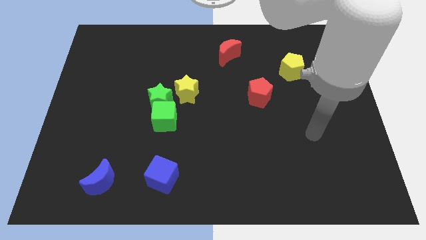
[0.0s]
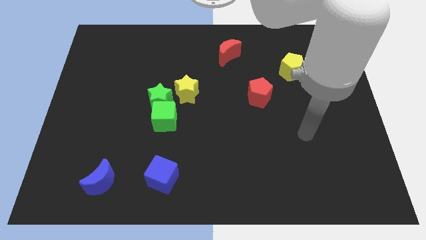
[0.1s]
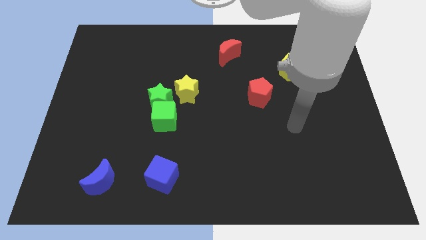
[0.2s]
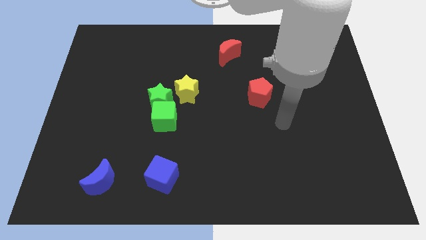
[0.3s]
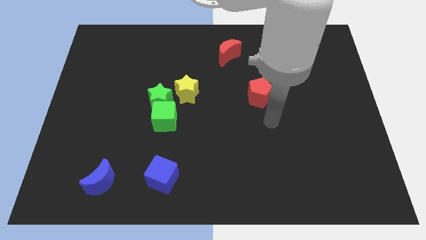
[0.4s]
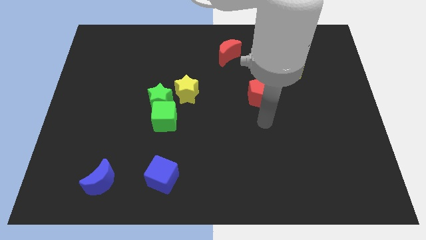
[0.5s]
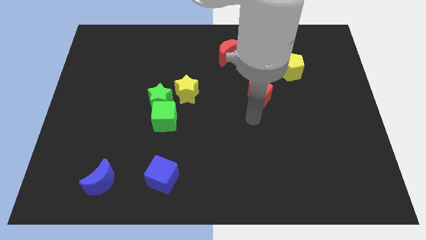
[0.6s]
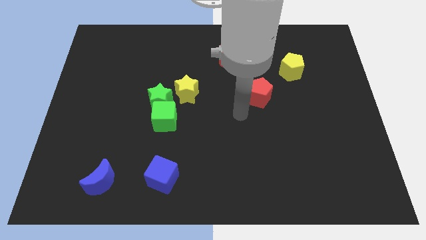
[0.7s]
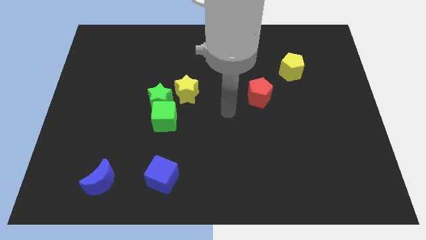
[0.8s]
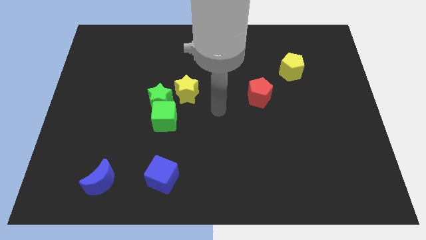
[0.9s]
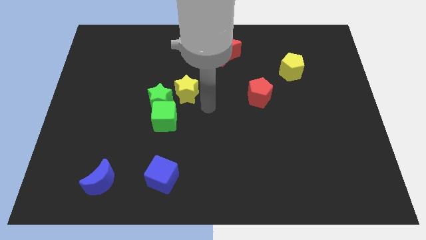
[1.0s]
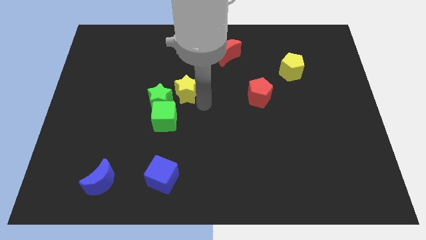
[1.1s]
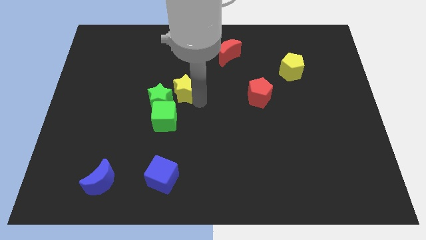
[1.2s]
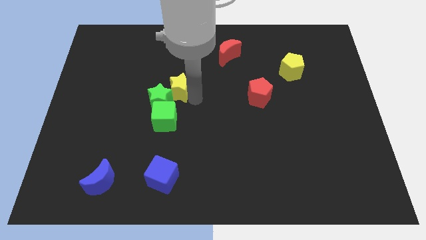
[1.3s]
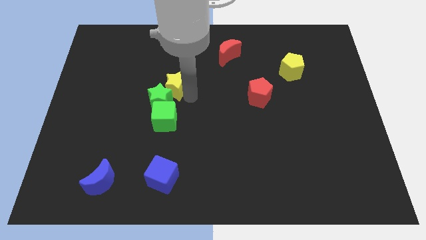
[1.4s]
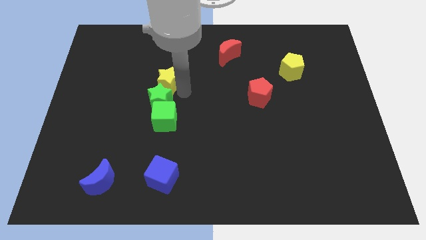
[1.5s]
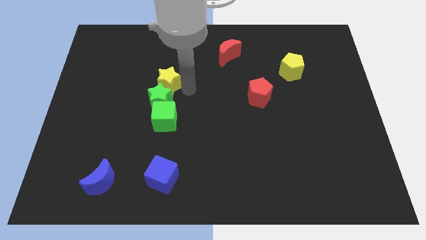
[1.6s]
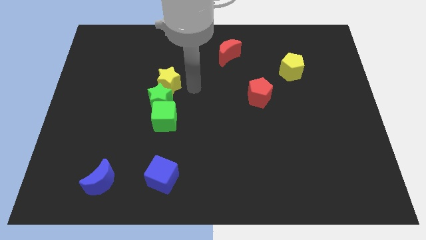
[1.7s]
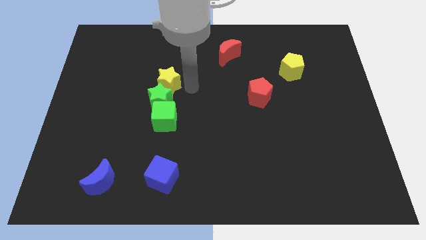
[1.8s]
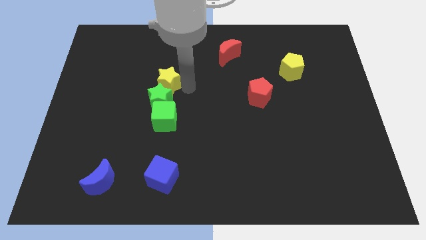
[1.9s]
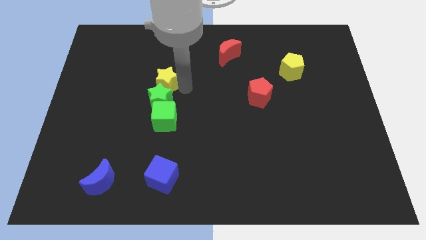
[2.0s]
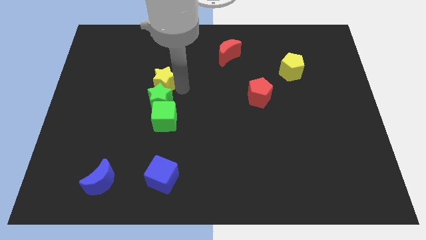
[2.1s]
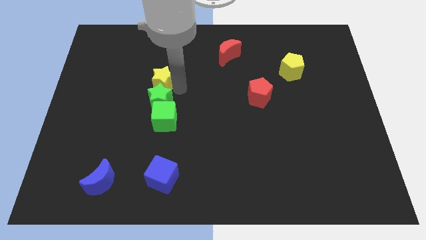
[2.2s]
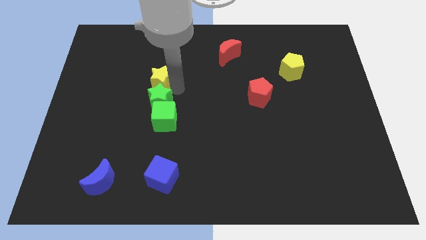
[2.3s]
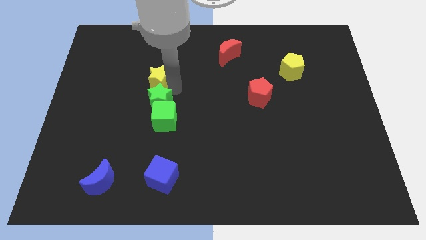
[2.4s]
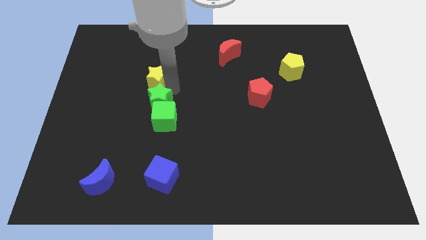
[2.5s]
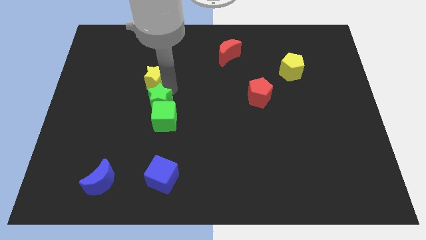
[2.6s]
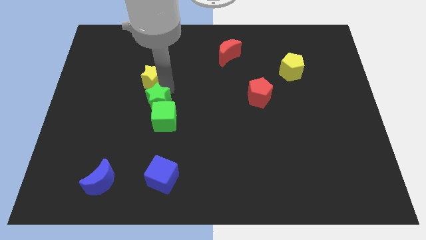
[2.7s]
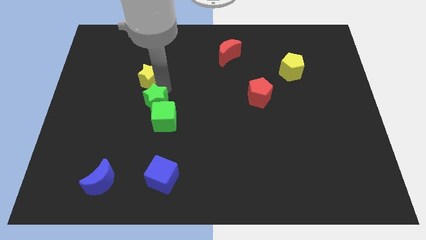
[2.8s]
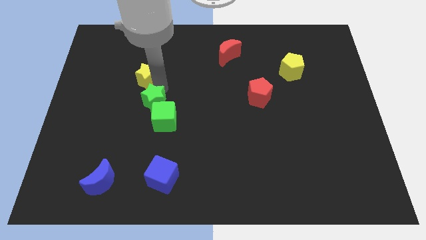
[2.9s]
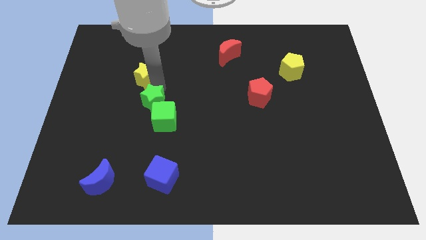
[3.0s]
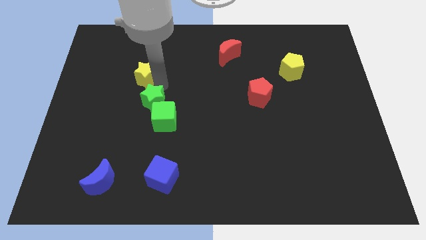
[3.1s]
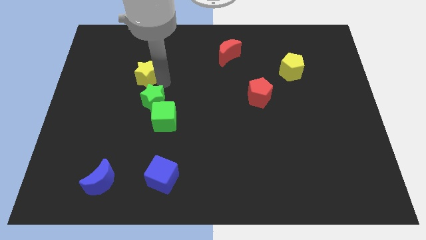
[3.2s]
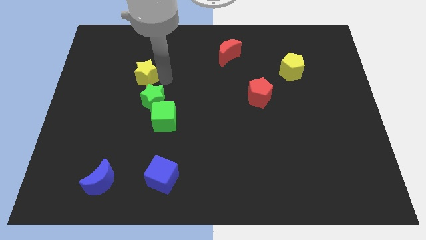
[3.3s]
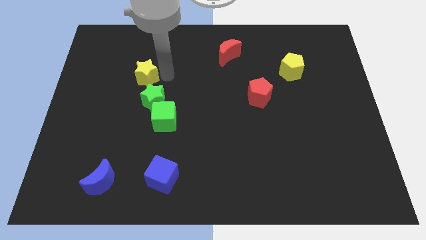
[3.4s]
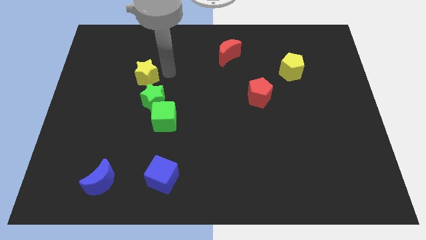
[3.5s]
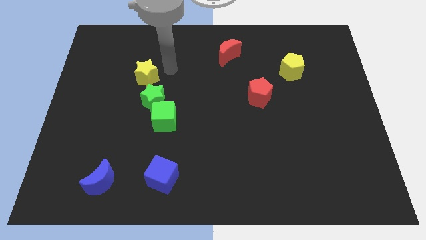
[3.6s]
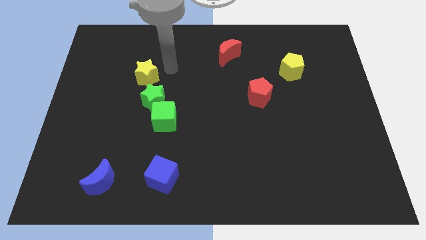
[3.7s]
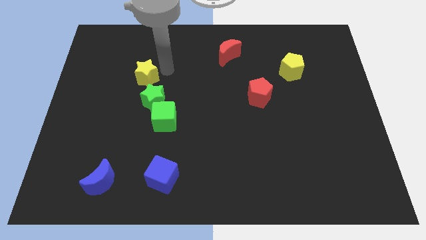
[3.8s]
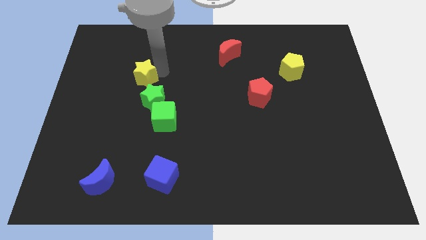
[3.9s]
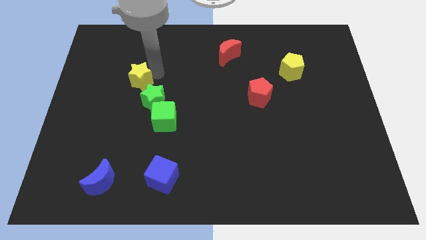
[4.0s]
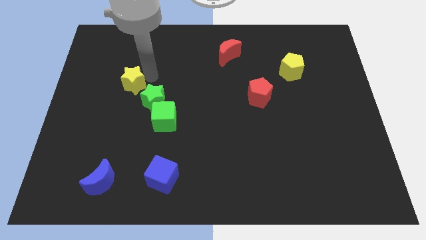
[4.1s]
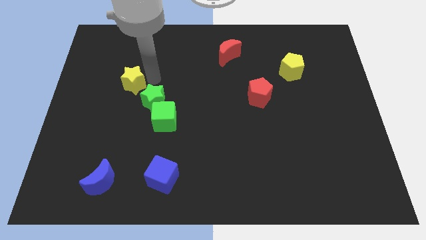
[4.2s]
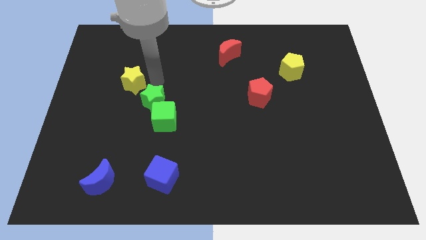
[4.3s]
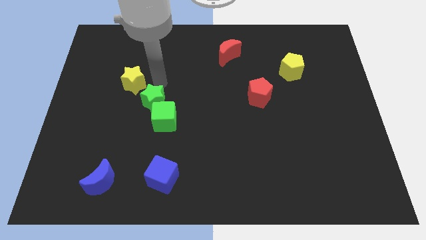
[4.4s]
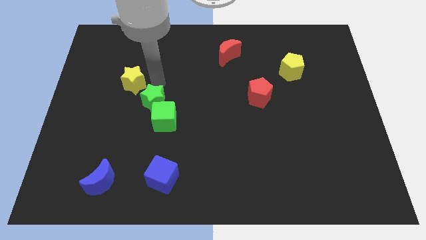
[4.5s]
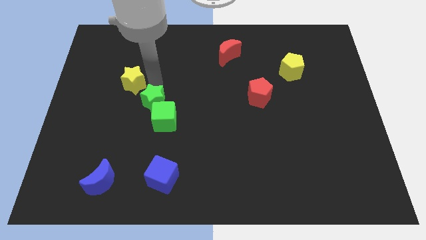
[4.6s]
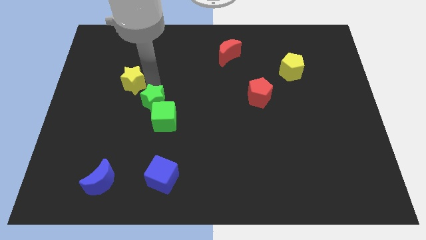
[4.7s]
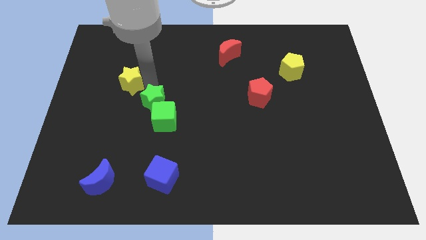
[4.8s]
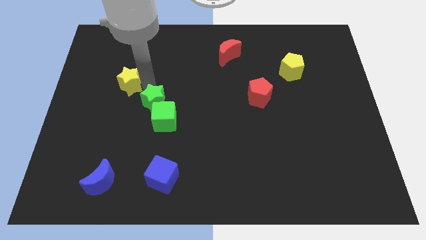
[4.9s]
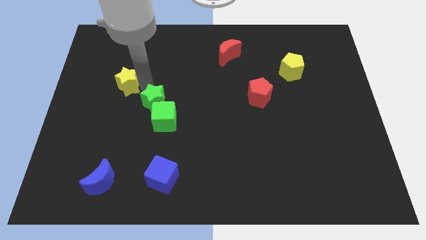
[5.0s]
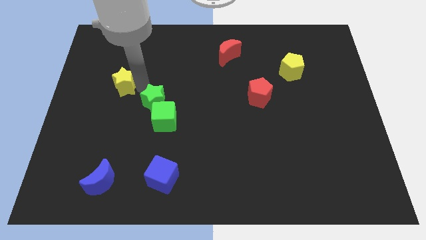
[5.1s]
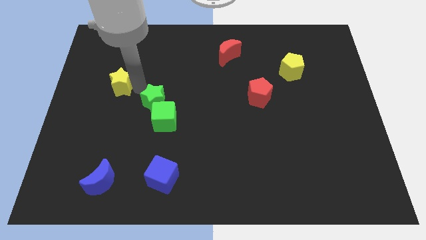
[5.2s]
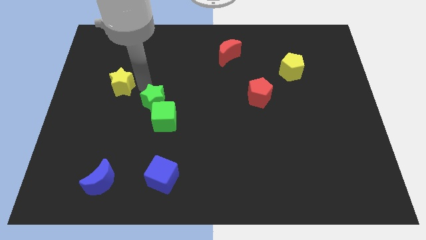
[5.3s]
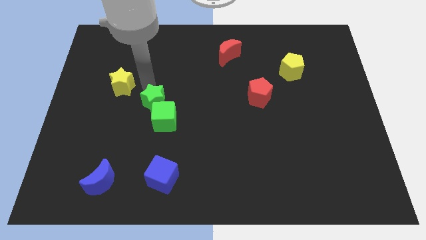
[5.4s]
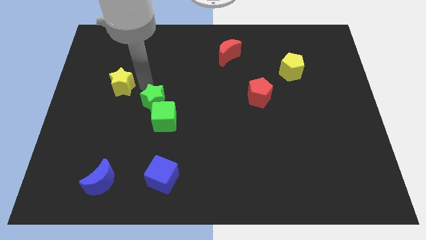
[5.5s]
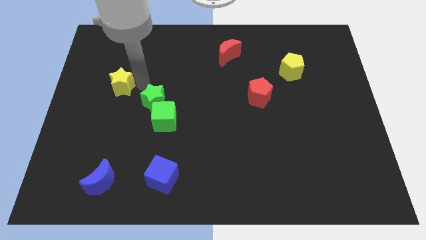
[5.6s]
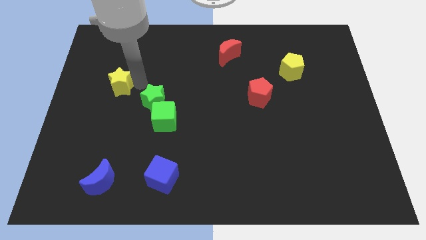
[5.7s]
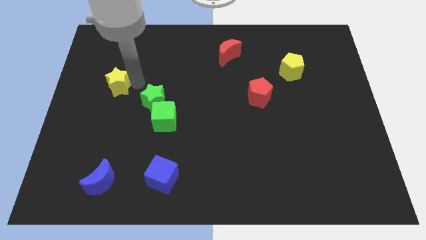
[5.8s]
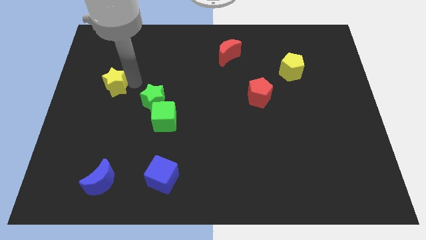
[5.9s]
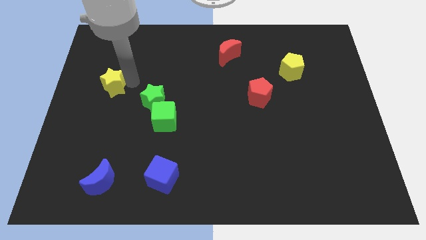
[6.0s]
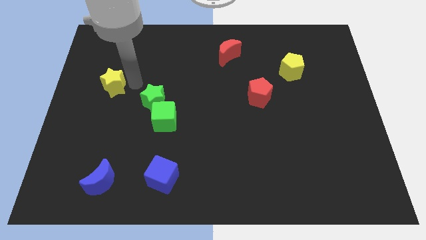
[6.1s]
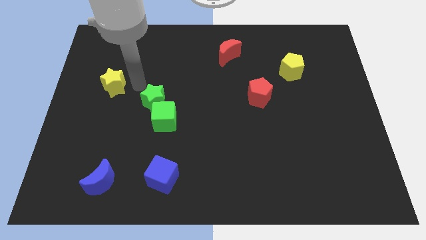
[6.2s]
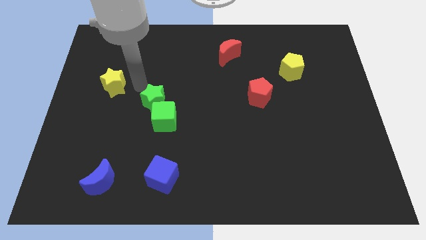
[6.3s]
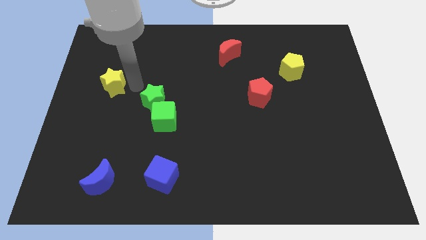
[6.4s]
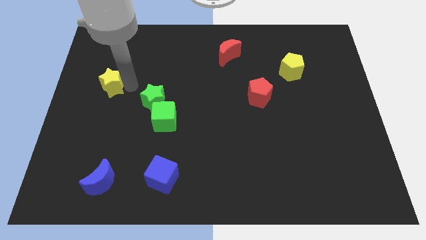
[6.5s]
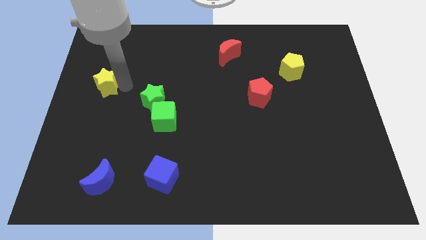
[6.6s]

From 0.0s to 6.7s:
move the yellow star to the left side of the board
